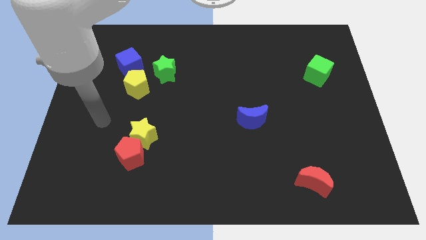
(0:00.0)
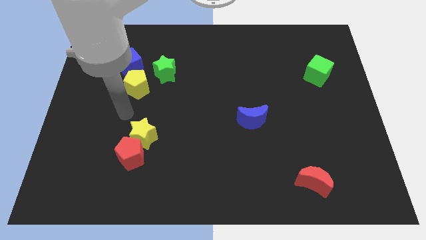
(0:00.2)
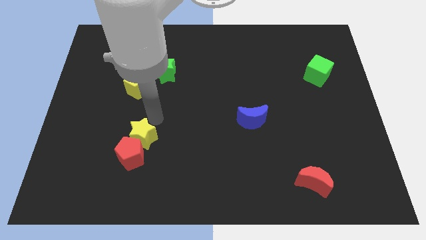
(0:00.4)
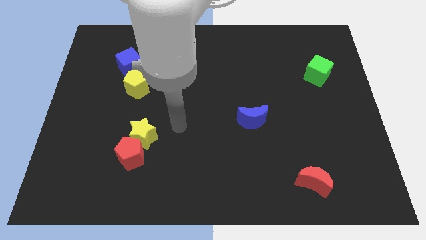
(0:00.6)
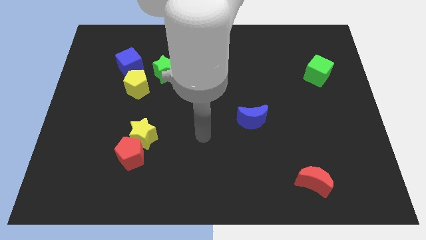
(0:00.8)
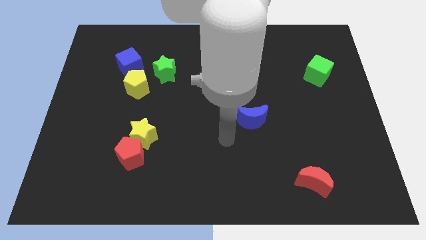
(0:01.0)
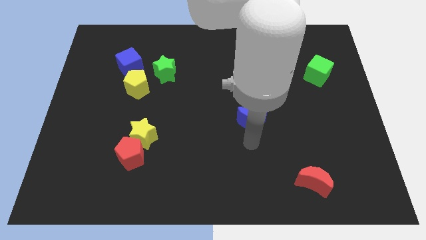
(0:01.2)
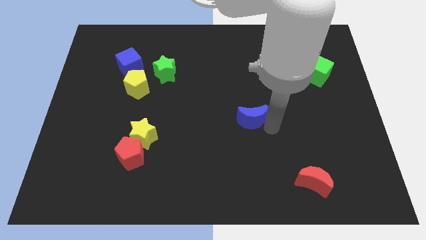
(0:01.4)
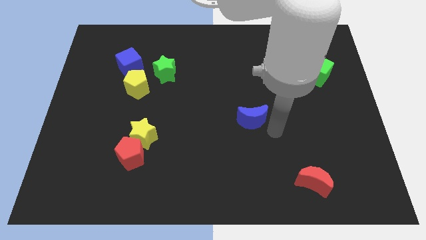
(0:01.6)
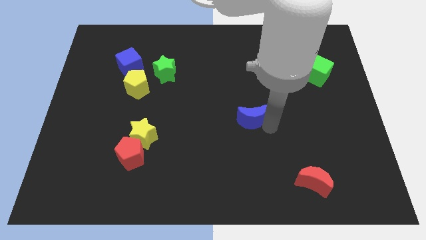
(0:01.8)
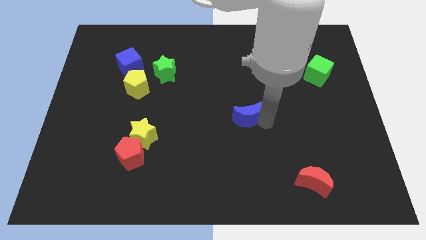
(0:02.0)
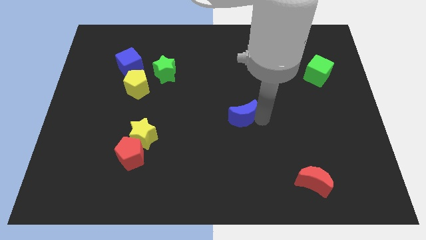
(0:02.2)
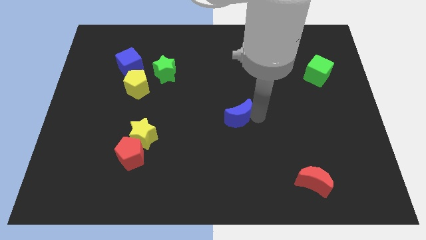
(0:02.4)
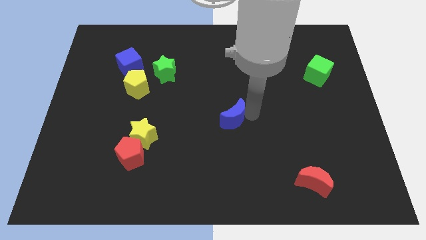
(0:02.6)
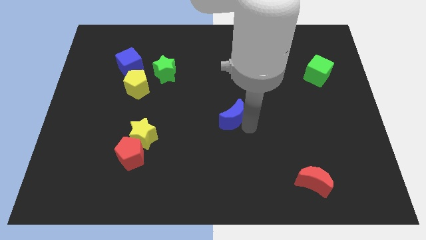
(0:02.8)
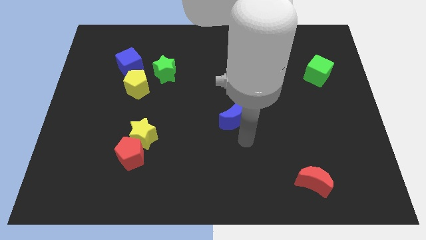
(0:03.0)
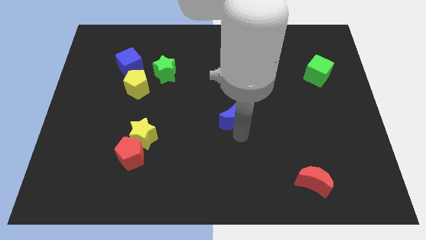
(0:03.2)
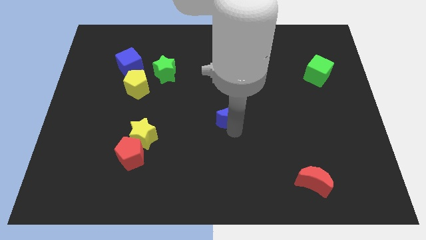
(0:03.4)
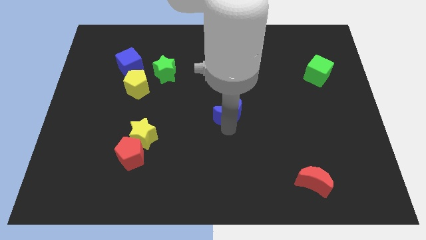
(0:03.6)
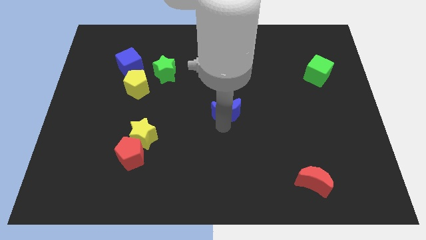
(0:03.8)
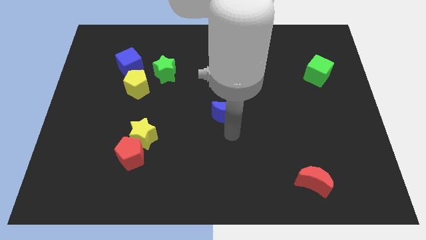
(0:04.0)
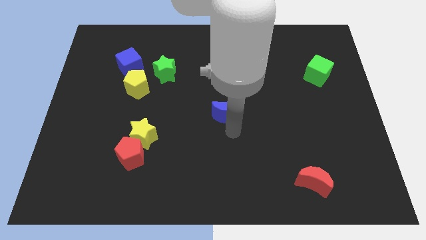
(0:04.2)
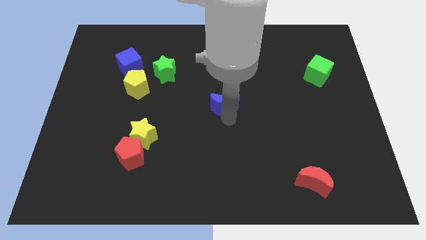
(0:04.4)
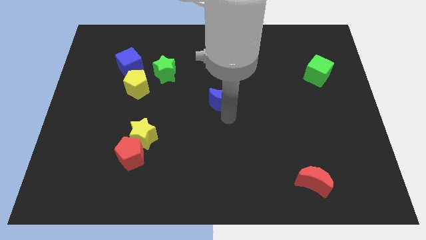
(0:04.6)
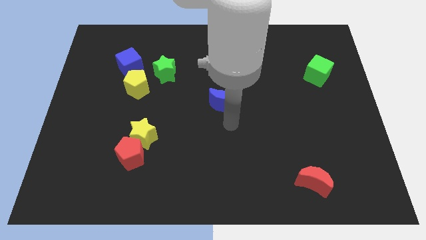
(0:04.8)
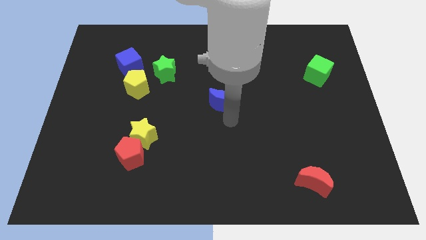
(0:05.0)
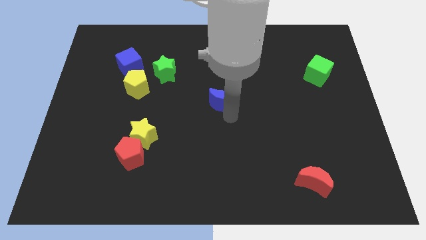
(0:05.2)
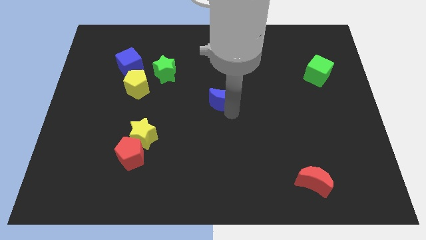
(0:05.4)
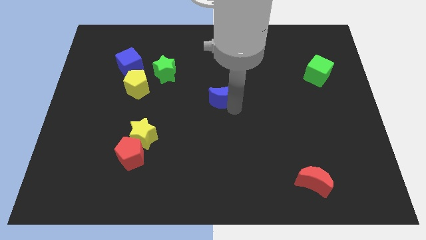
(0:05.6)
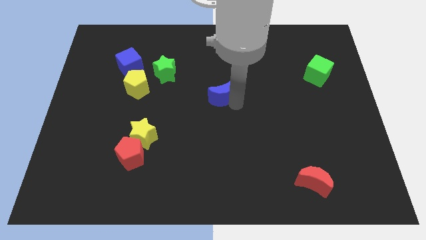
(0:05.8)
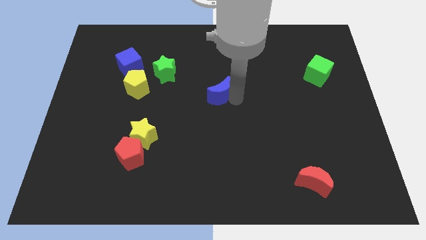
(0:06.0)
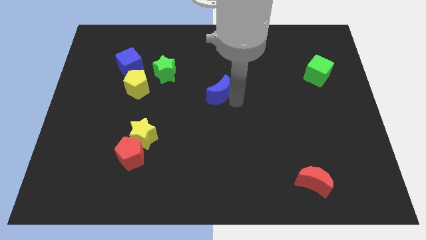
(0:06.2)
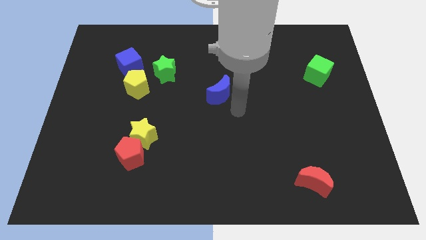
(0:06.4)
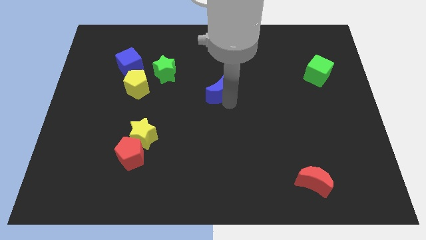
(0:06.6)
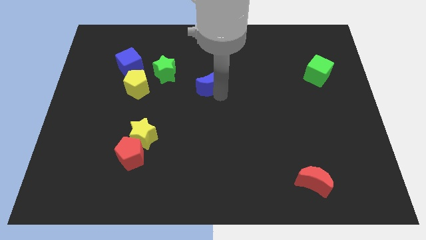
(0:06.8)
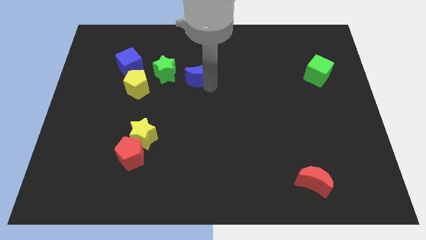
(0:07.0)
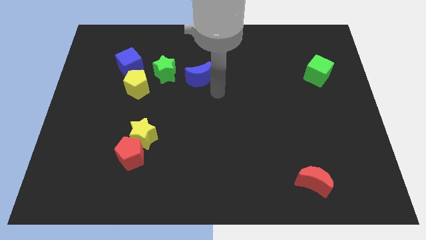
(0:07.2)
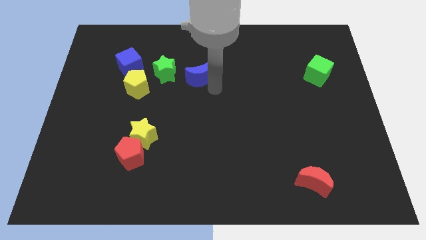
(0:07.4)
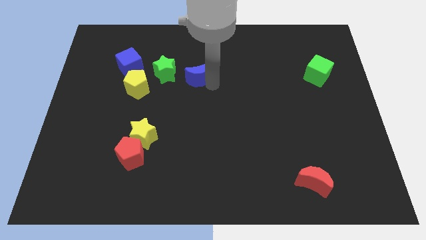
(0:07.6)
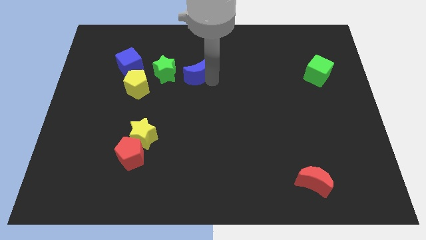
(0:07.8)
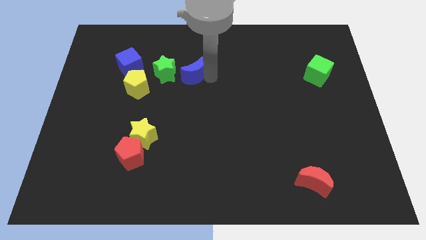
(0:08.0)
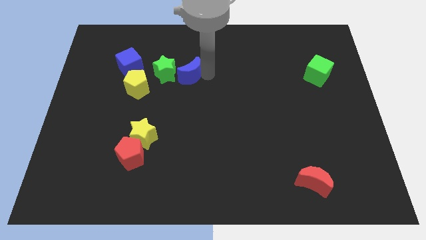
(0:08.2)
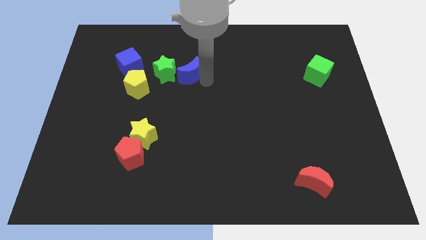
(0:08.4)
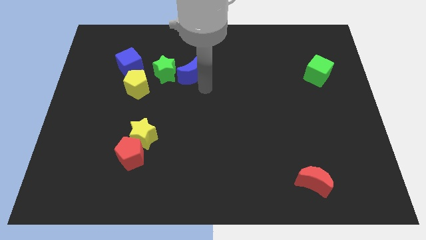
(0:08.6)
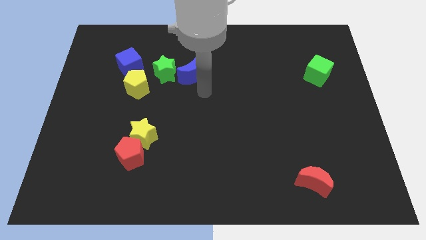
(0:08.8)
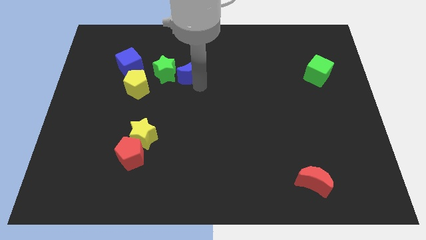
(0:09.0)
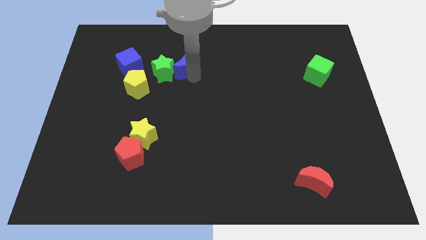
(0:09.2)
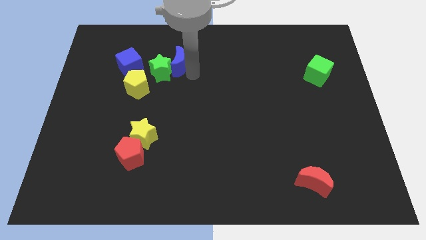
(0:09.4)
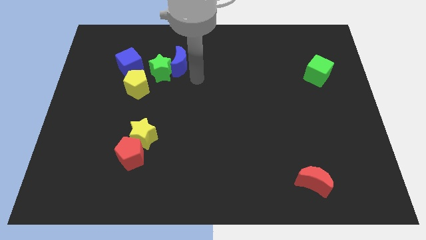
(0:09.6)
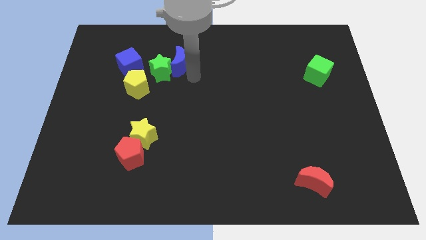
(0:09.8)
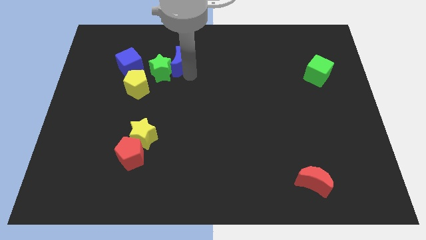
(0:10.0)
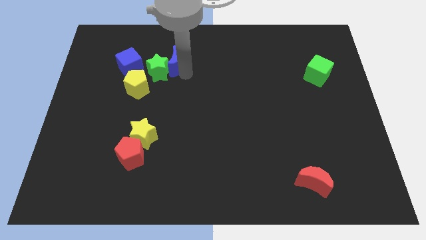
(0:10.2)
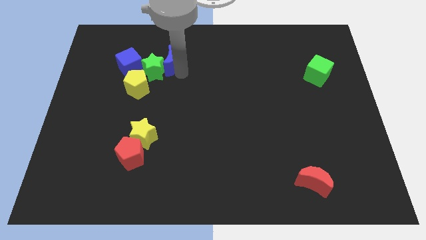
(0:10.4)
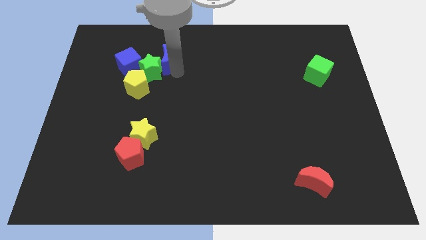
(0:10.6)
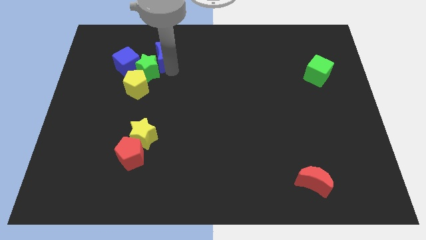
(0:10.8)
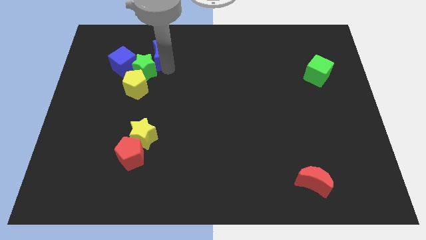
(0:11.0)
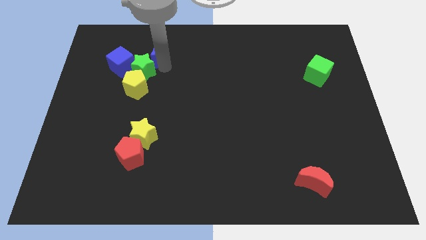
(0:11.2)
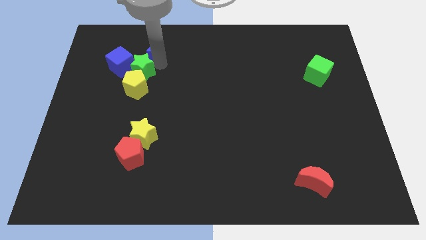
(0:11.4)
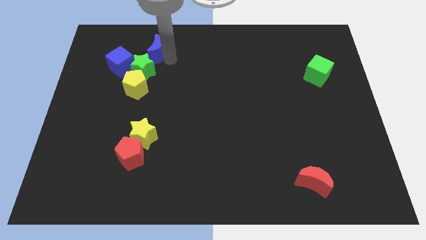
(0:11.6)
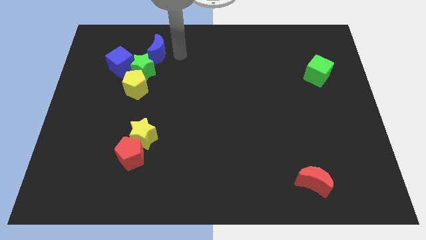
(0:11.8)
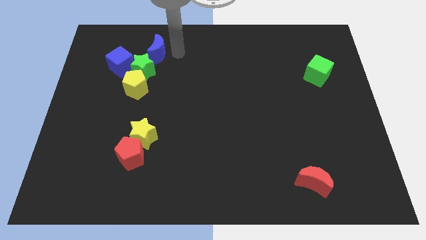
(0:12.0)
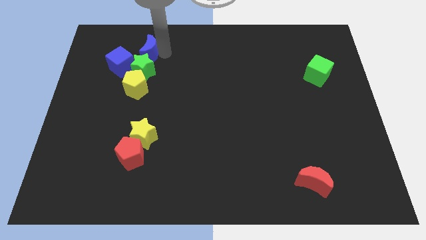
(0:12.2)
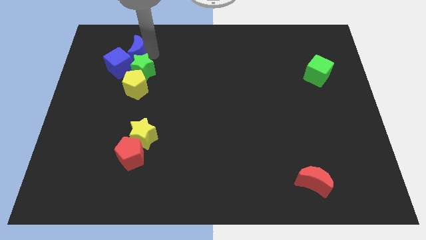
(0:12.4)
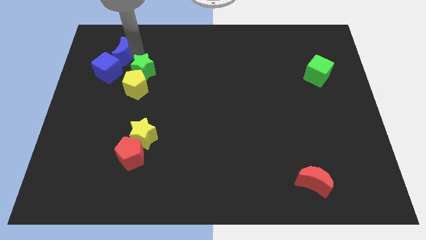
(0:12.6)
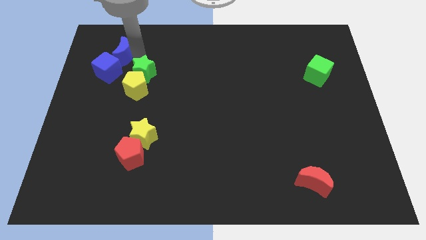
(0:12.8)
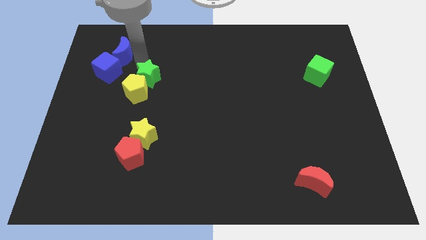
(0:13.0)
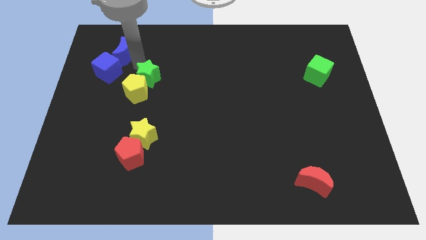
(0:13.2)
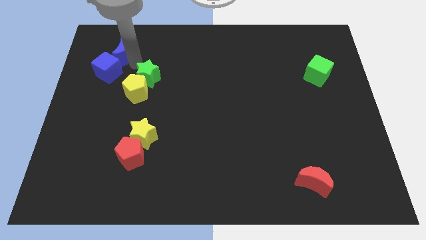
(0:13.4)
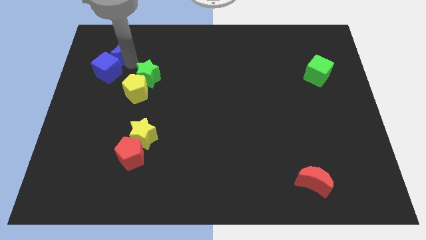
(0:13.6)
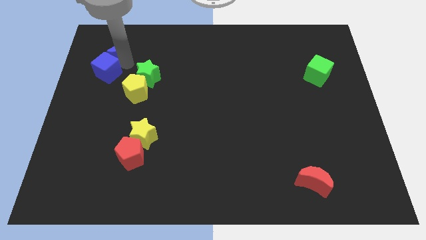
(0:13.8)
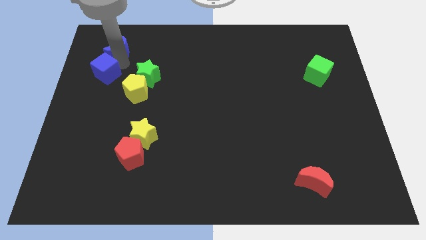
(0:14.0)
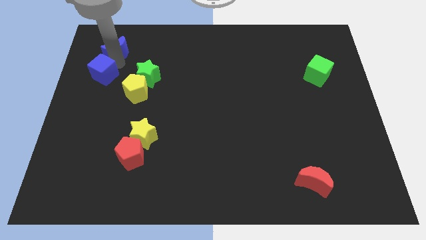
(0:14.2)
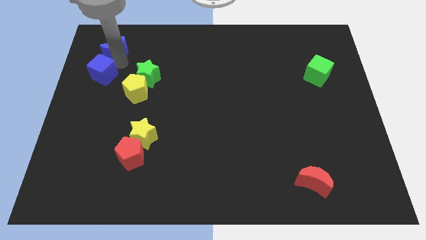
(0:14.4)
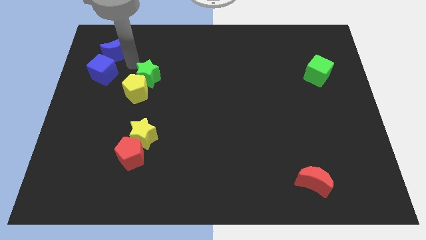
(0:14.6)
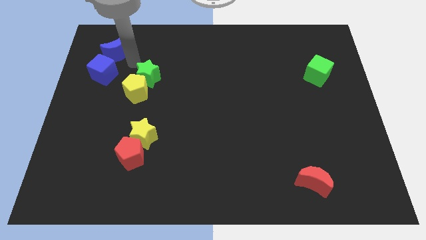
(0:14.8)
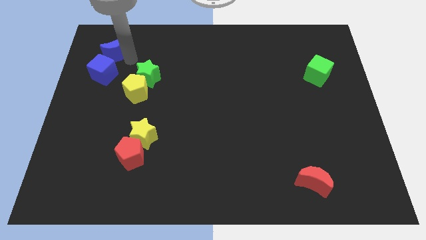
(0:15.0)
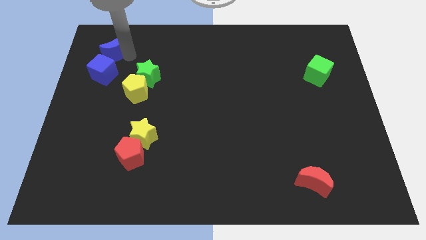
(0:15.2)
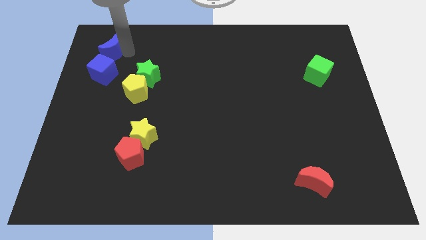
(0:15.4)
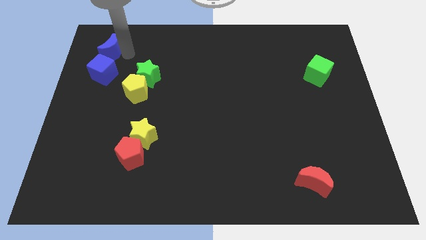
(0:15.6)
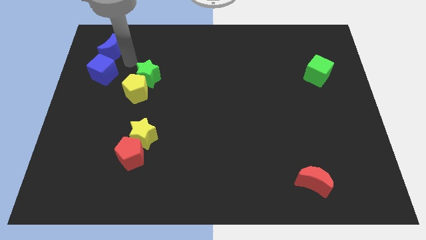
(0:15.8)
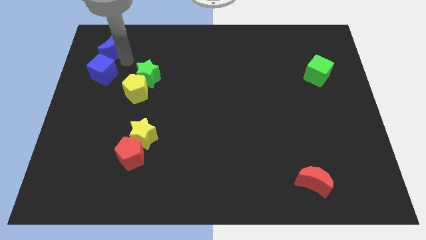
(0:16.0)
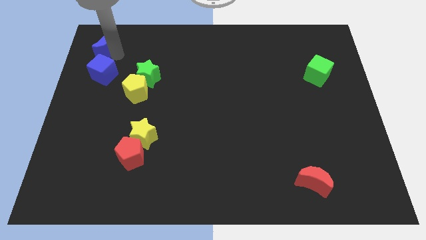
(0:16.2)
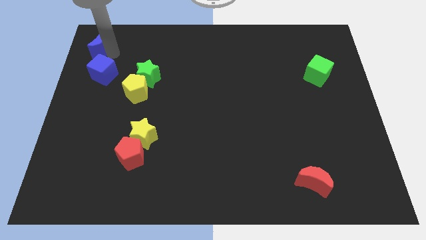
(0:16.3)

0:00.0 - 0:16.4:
slide the blue moon to the upper left corner
